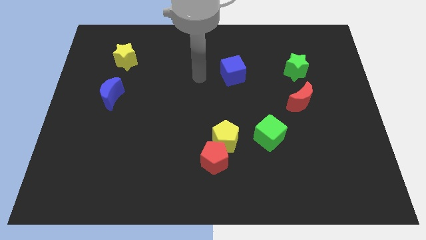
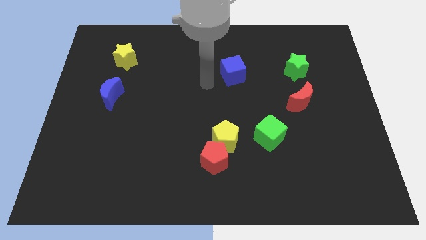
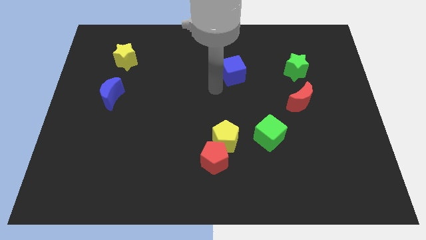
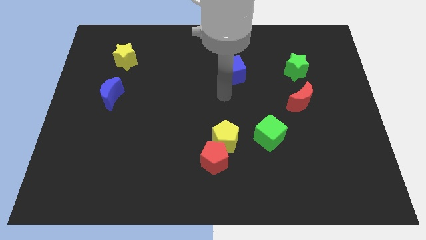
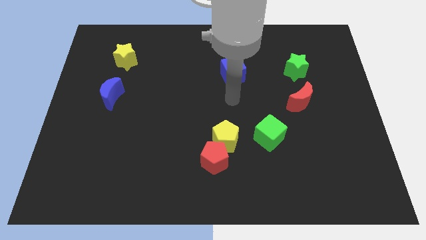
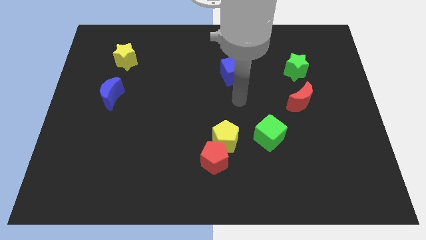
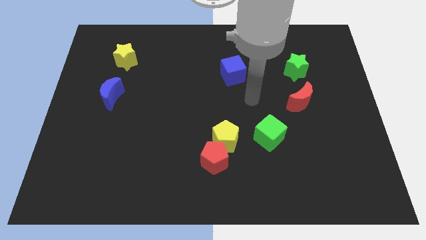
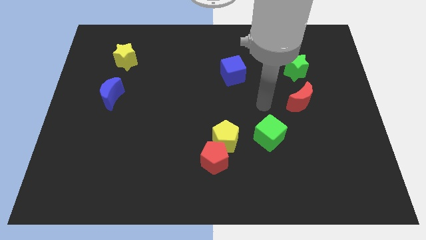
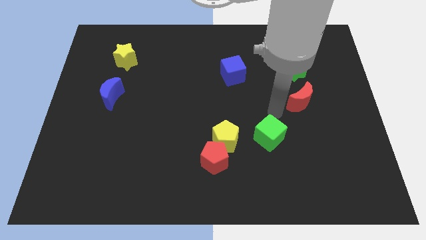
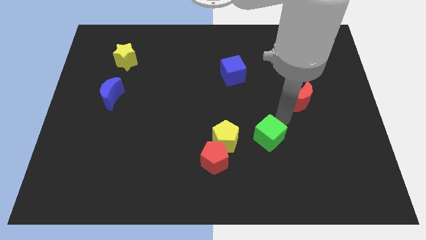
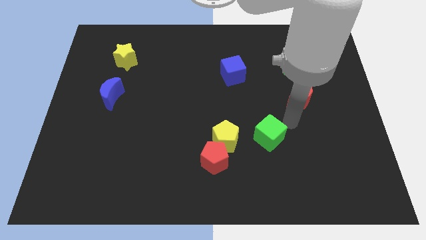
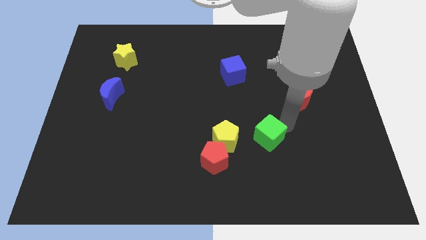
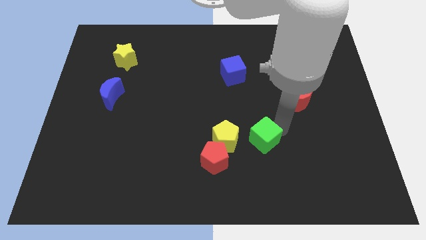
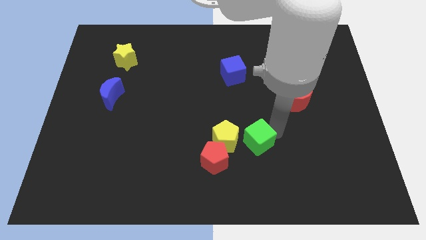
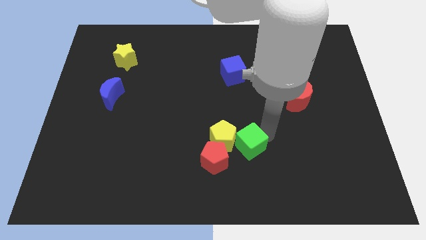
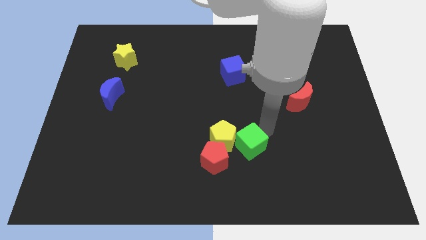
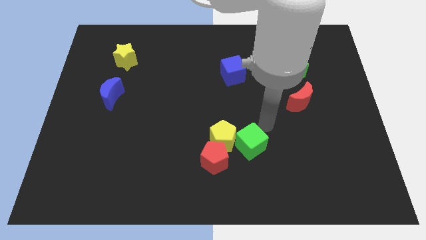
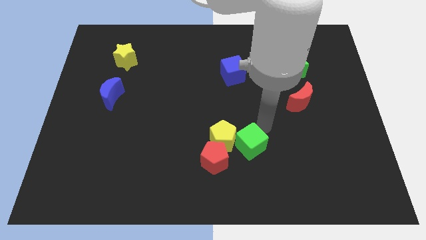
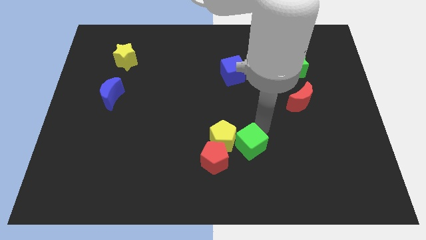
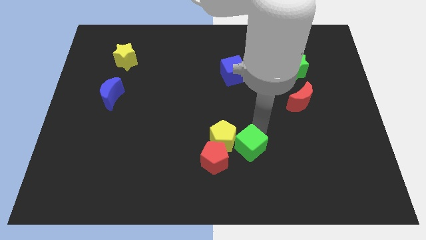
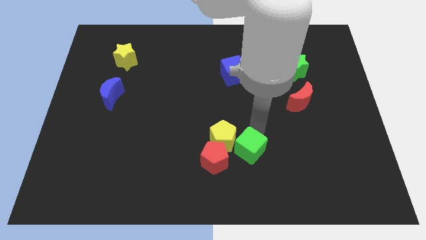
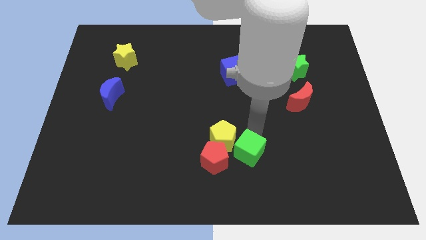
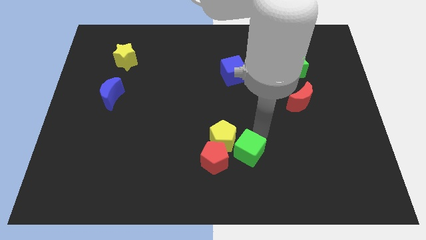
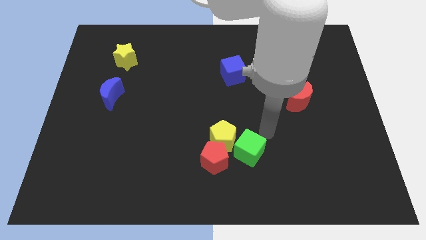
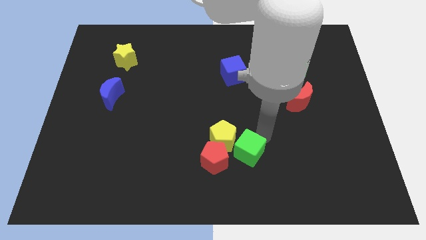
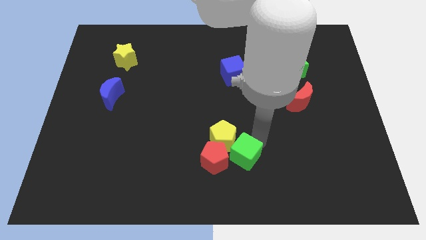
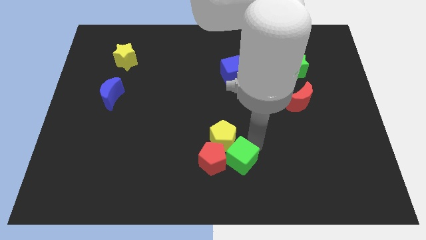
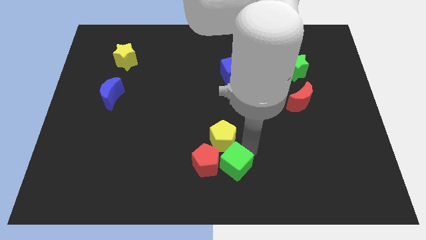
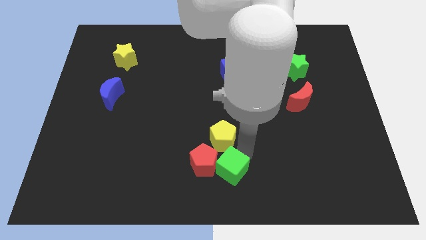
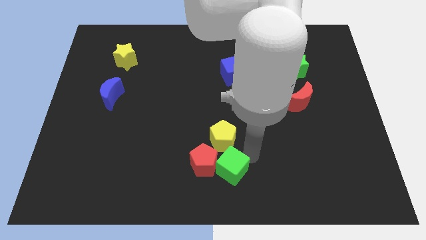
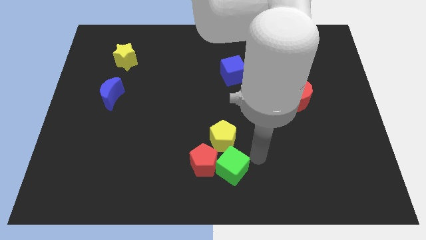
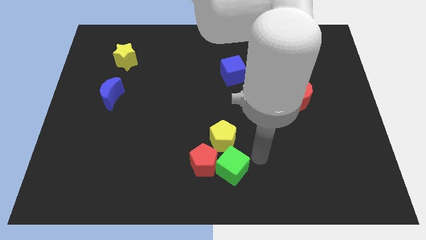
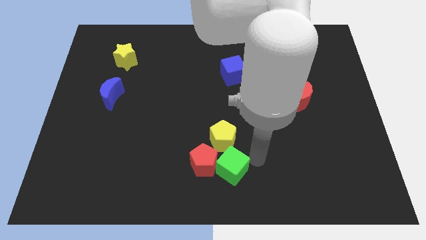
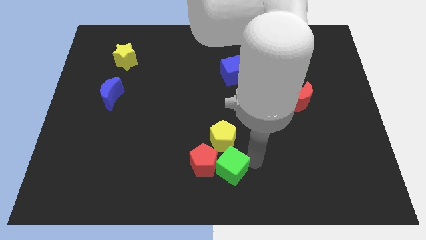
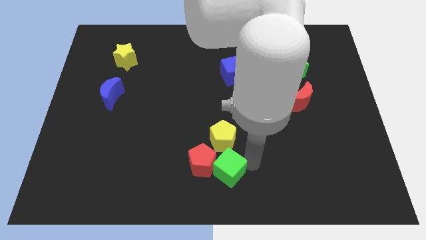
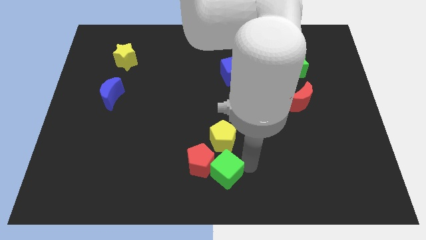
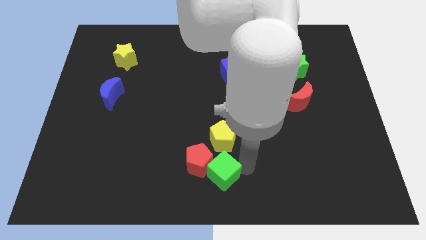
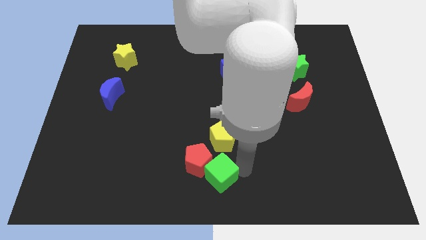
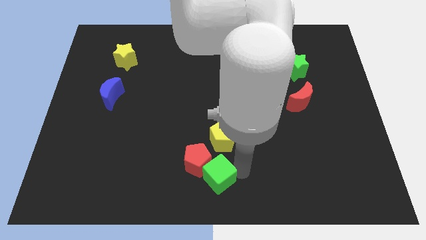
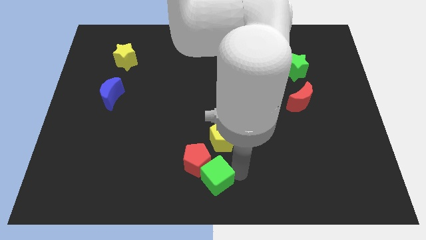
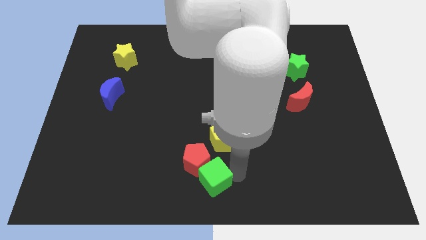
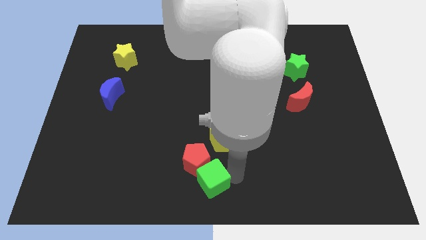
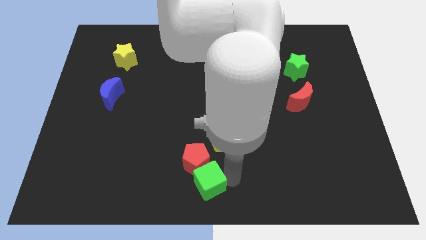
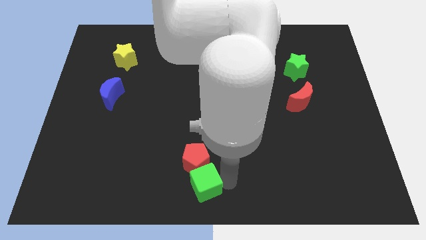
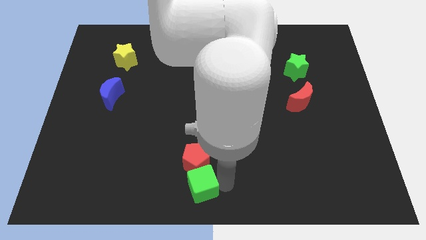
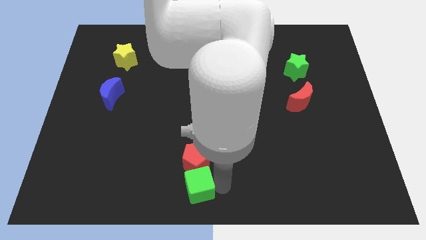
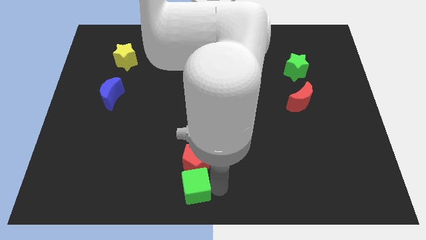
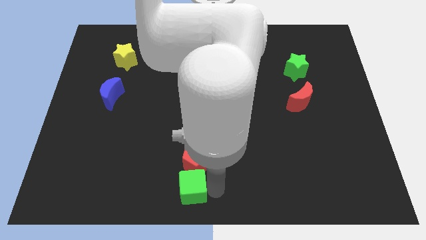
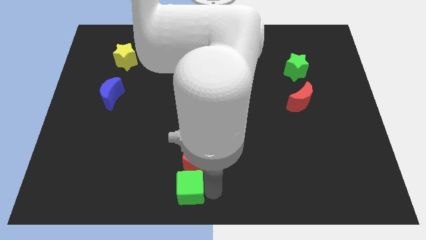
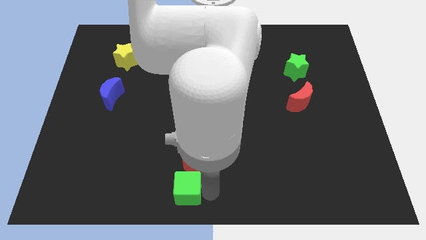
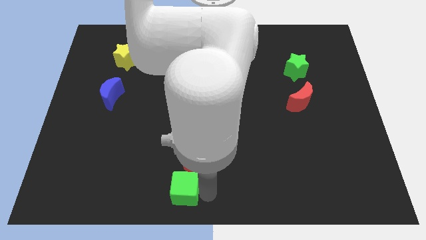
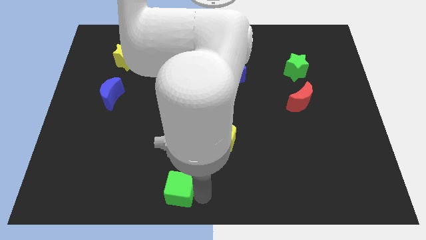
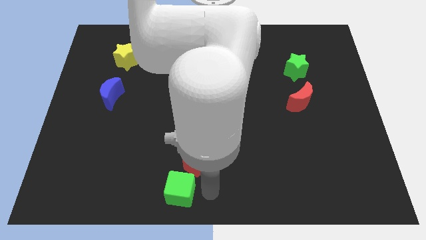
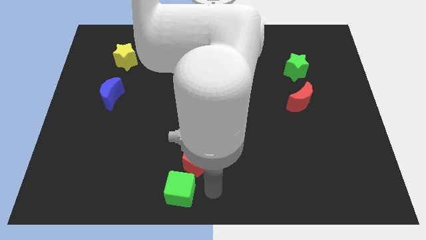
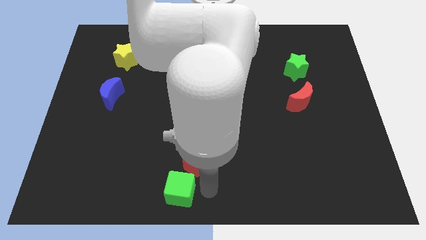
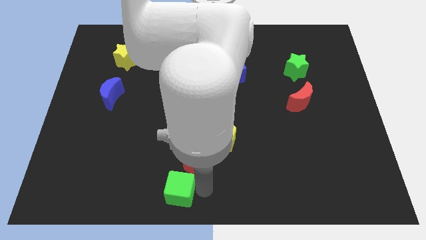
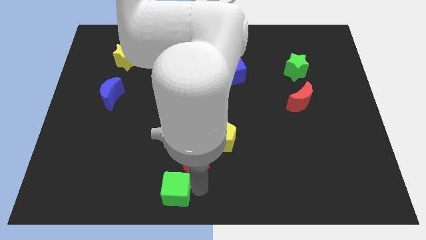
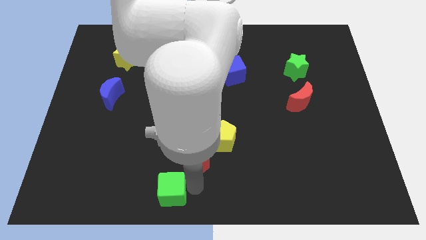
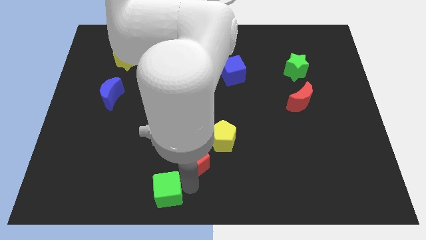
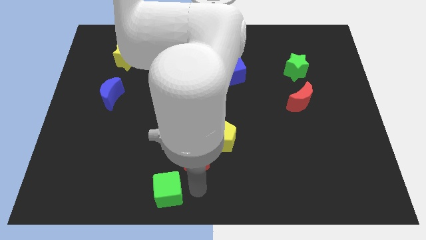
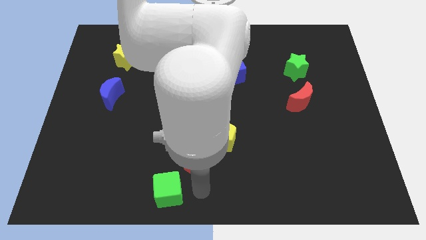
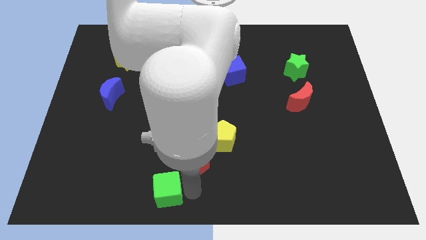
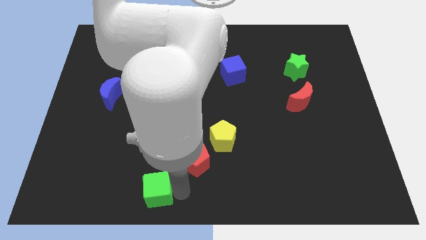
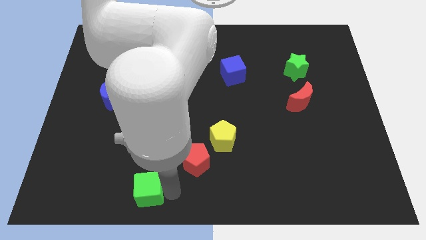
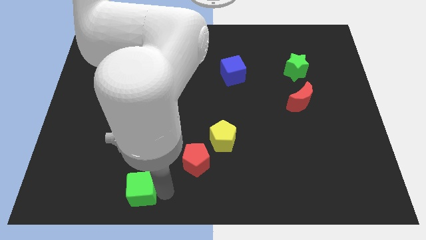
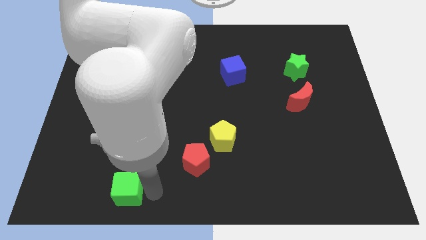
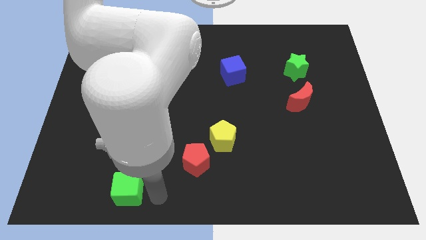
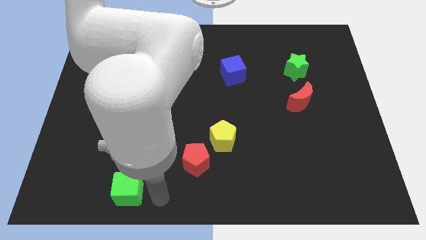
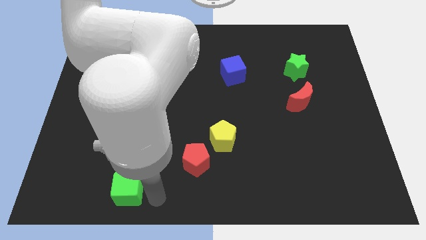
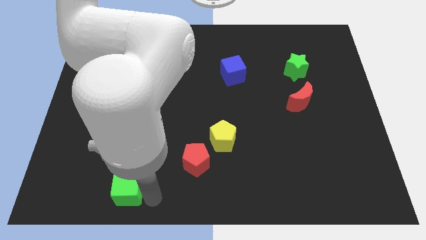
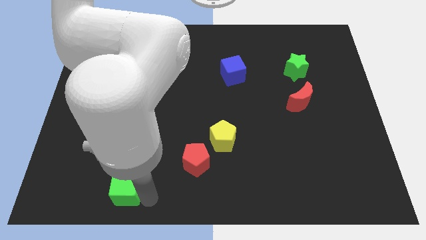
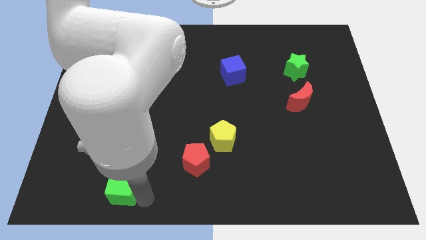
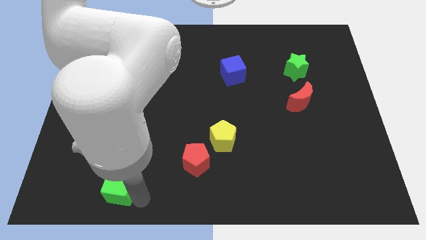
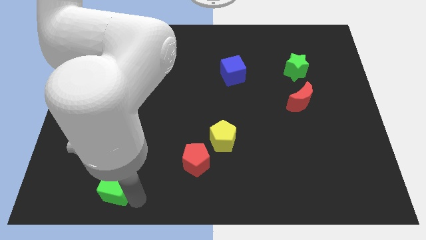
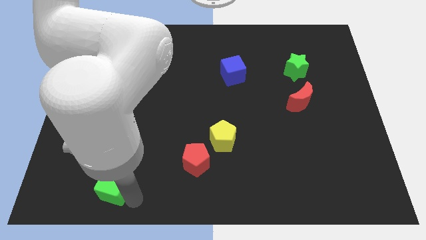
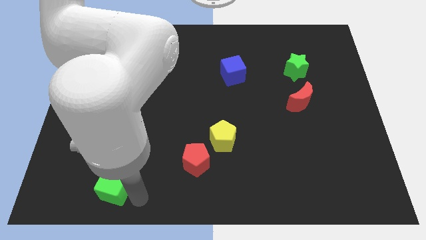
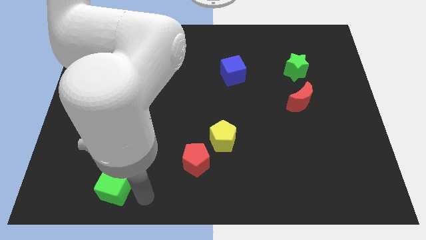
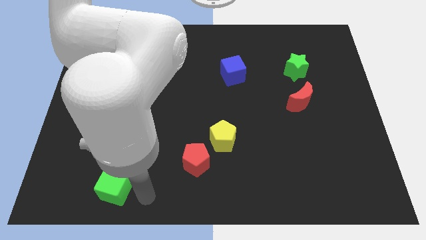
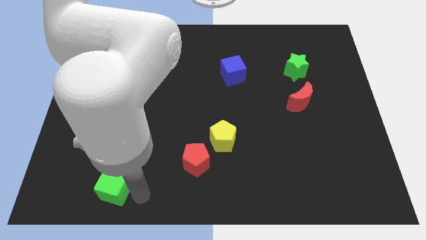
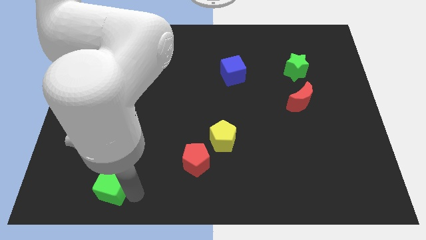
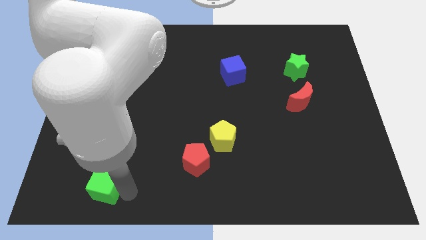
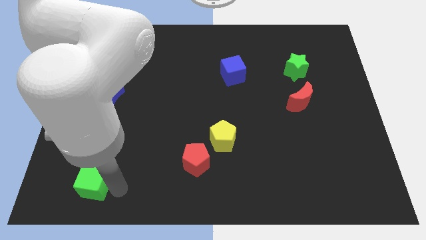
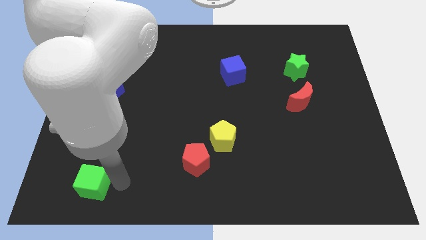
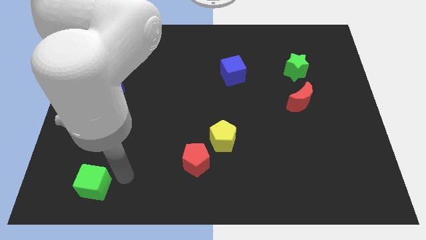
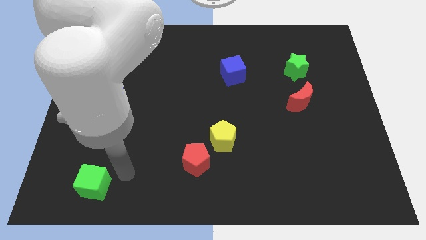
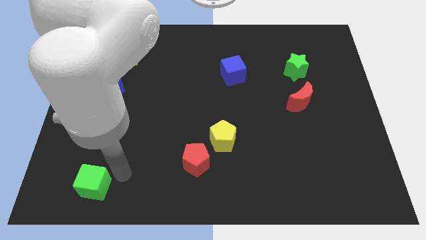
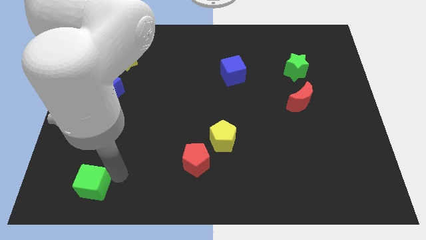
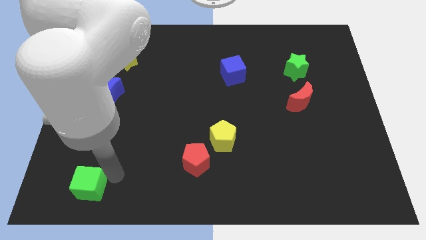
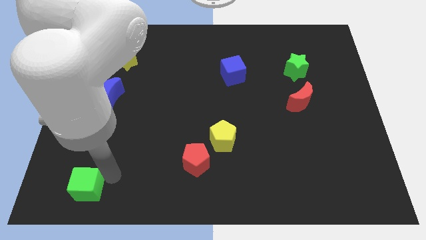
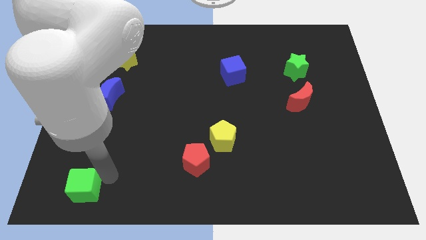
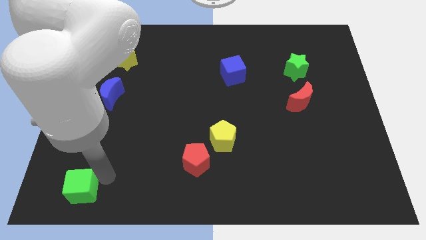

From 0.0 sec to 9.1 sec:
push the green cube to the bottom left
